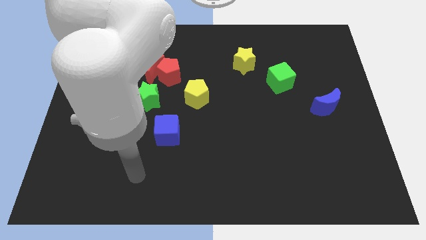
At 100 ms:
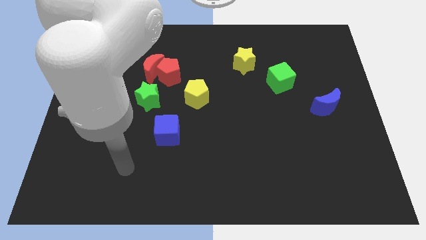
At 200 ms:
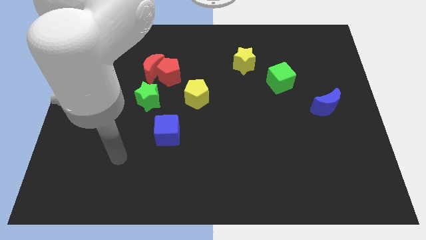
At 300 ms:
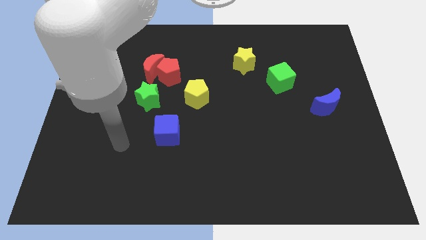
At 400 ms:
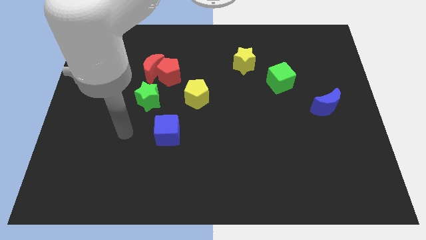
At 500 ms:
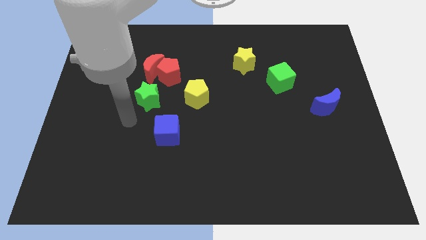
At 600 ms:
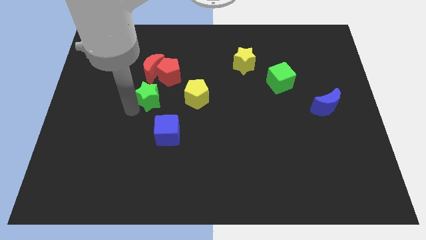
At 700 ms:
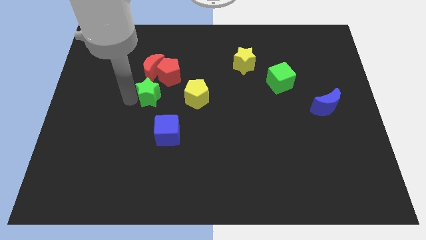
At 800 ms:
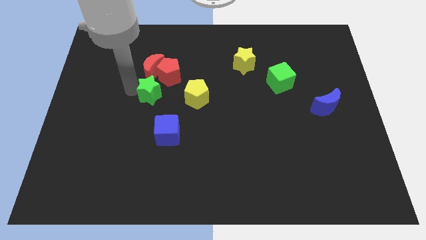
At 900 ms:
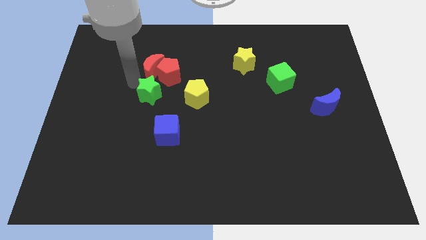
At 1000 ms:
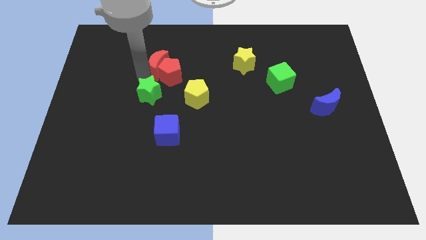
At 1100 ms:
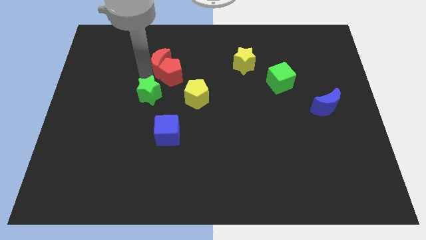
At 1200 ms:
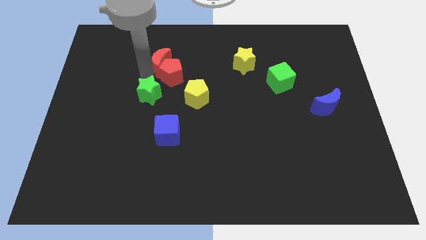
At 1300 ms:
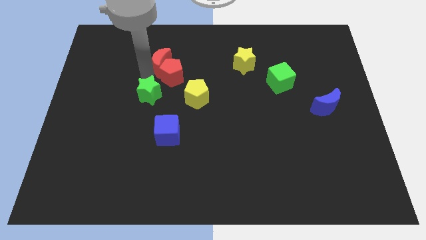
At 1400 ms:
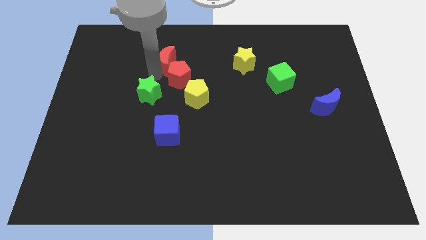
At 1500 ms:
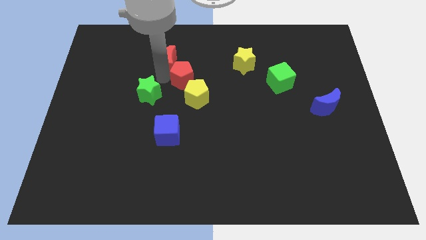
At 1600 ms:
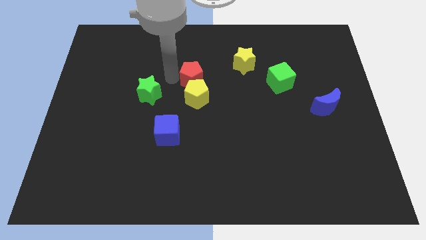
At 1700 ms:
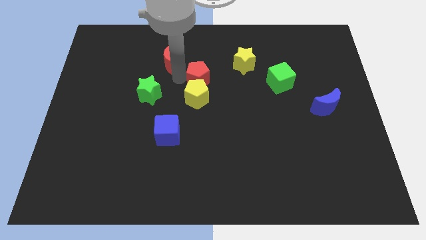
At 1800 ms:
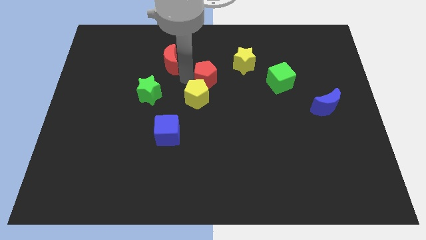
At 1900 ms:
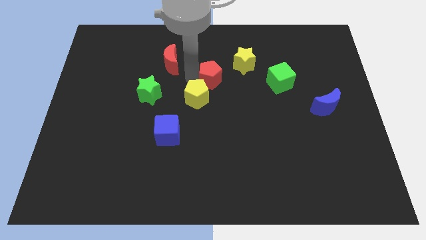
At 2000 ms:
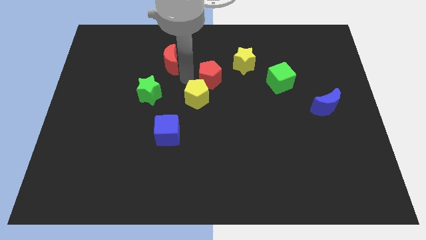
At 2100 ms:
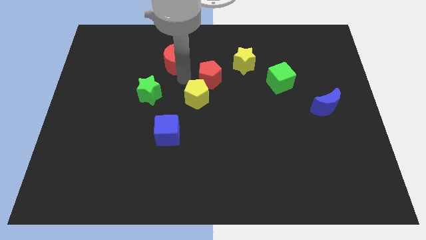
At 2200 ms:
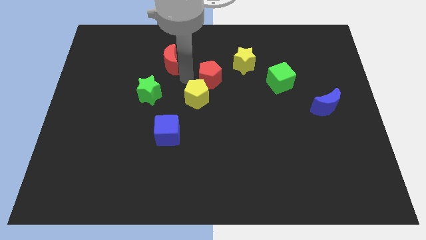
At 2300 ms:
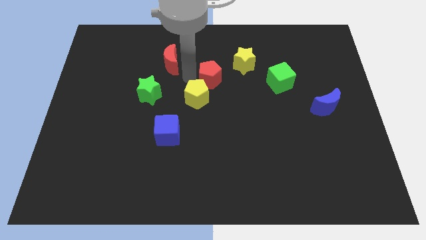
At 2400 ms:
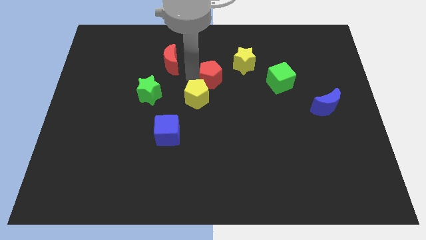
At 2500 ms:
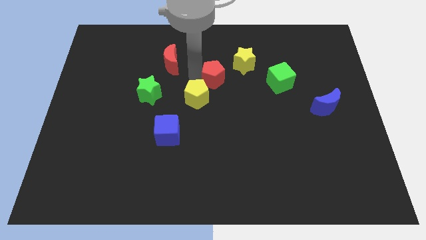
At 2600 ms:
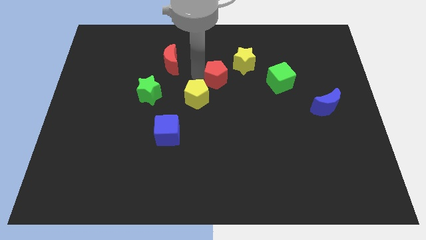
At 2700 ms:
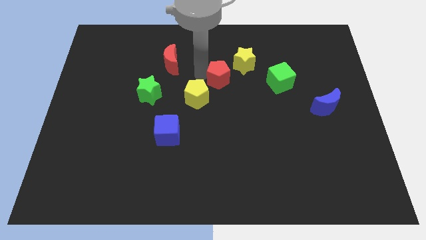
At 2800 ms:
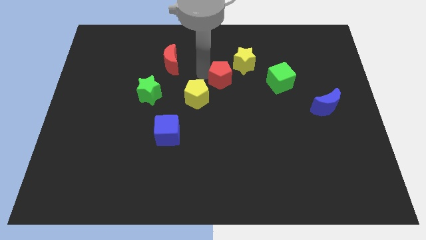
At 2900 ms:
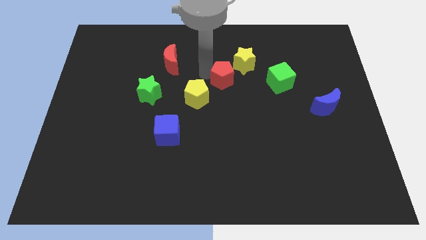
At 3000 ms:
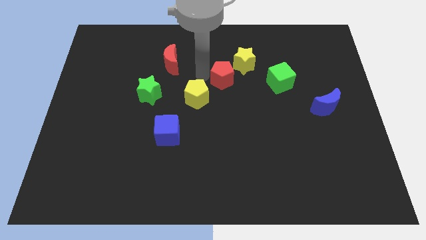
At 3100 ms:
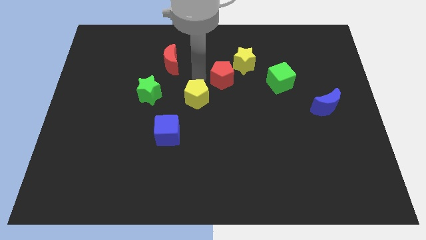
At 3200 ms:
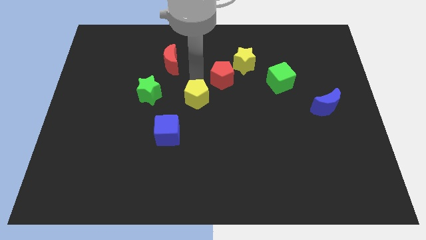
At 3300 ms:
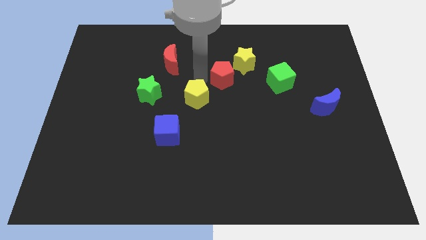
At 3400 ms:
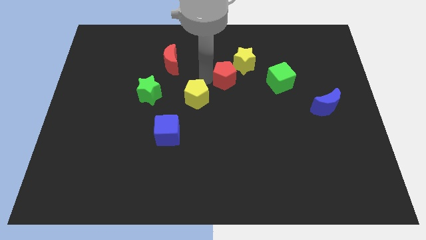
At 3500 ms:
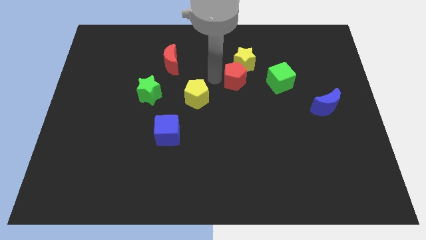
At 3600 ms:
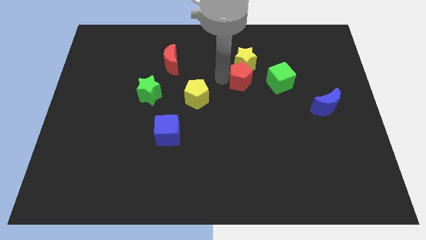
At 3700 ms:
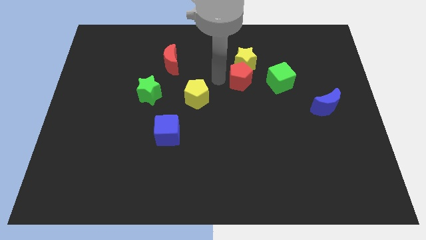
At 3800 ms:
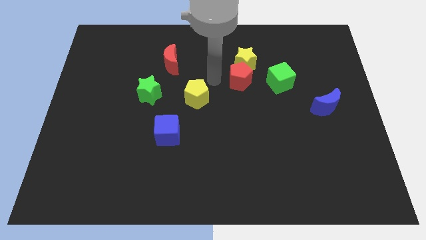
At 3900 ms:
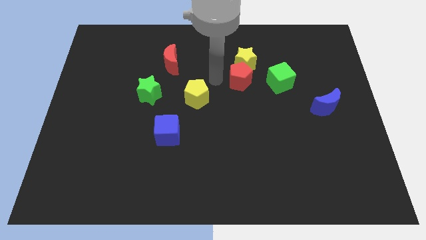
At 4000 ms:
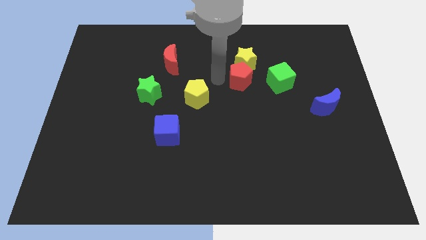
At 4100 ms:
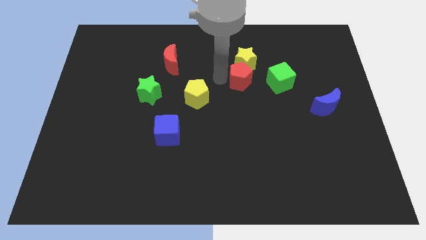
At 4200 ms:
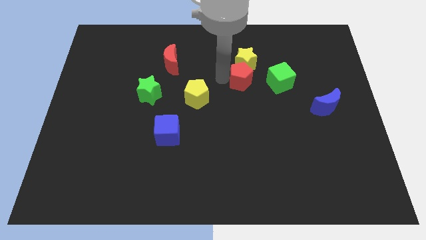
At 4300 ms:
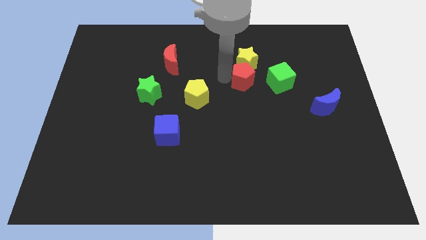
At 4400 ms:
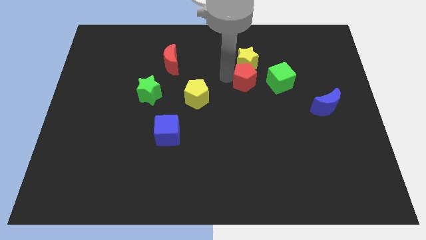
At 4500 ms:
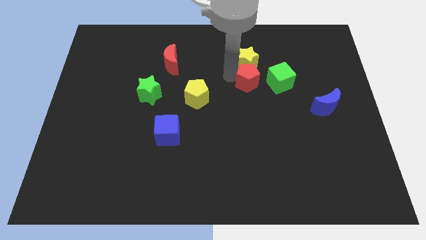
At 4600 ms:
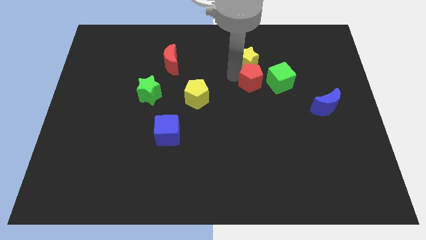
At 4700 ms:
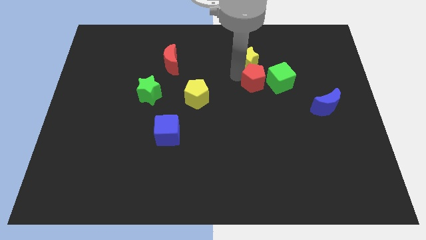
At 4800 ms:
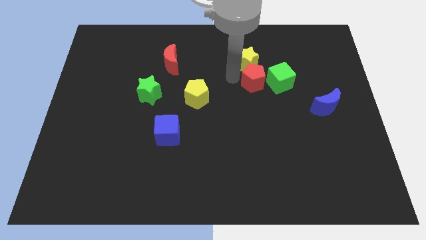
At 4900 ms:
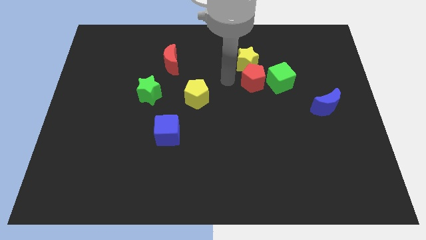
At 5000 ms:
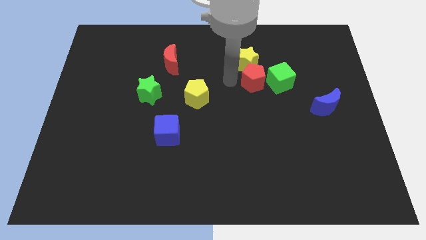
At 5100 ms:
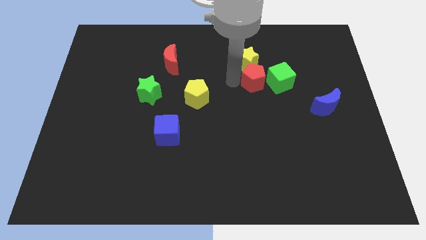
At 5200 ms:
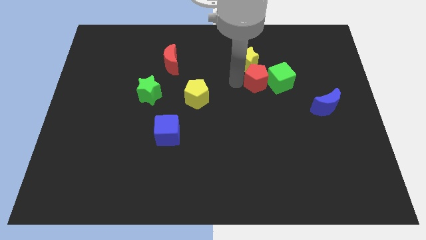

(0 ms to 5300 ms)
move the red pentagon towards the green cube

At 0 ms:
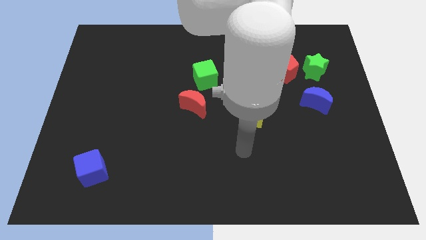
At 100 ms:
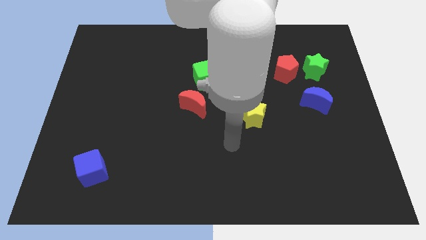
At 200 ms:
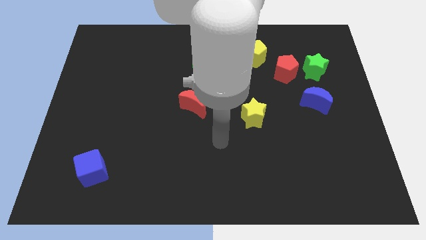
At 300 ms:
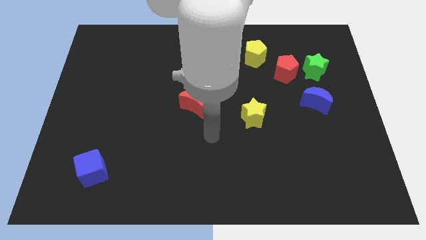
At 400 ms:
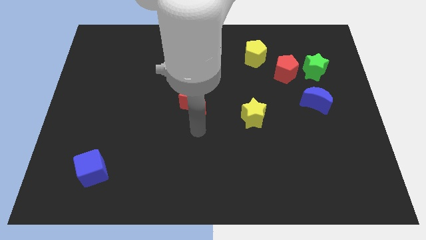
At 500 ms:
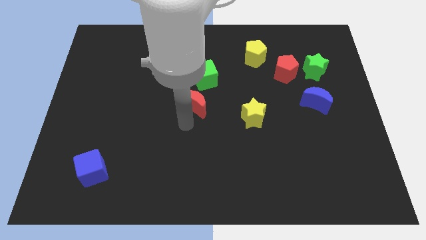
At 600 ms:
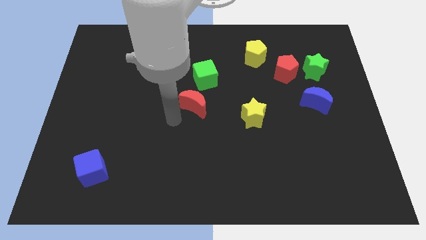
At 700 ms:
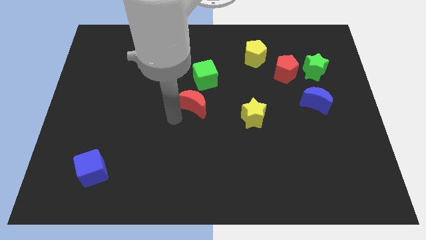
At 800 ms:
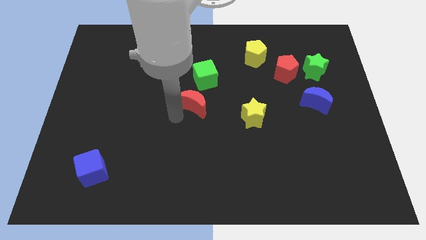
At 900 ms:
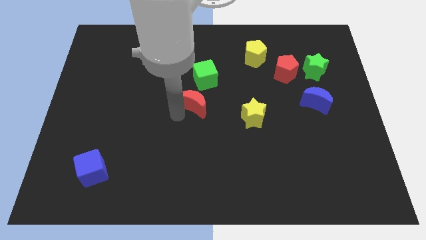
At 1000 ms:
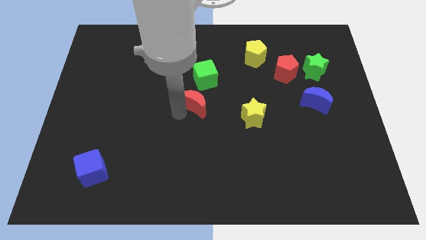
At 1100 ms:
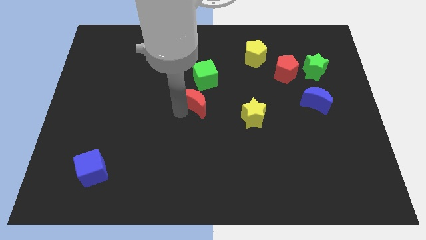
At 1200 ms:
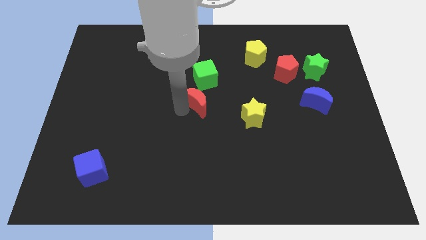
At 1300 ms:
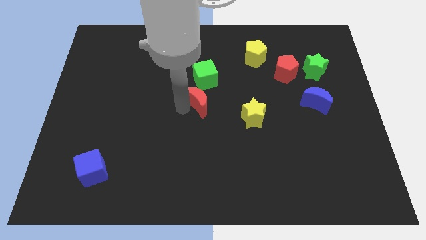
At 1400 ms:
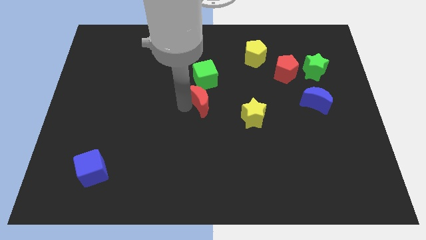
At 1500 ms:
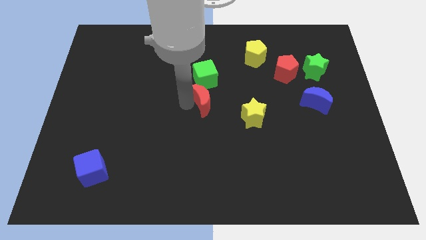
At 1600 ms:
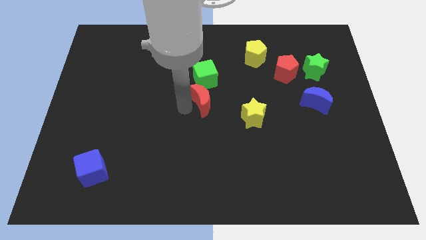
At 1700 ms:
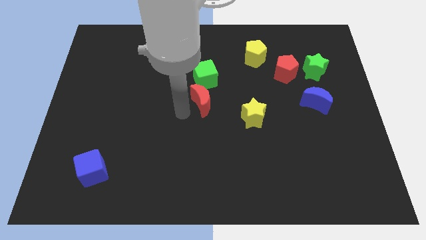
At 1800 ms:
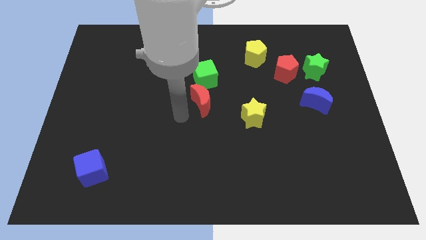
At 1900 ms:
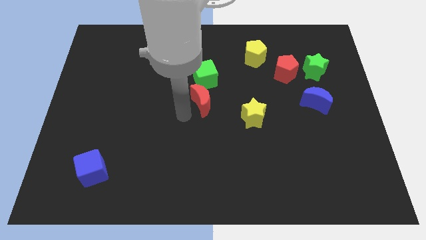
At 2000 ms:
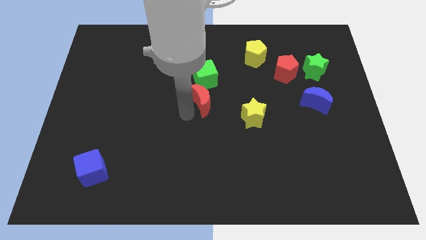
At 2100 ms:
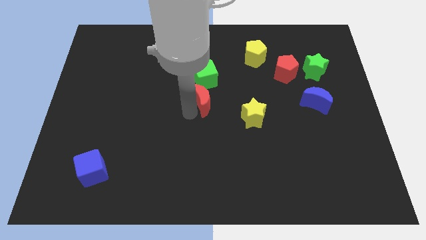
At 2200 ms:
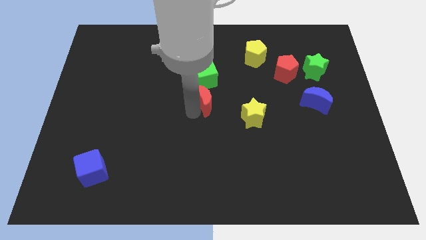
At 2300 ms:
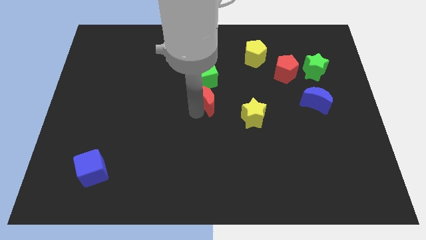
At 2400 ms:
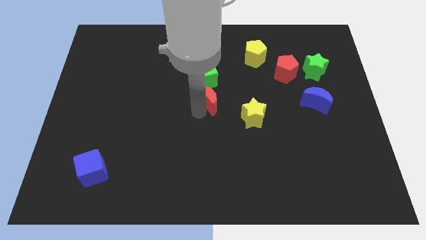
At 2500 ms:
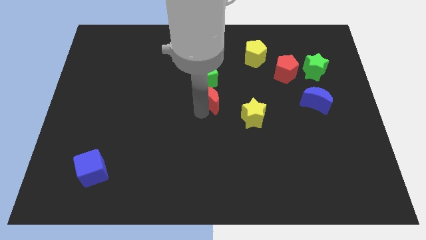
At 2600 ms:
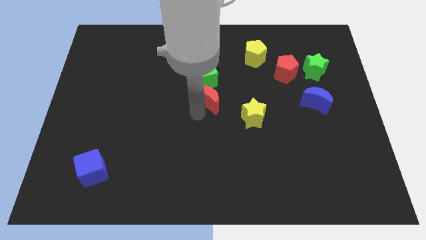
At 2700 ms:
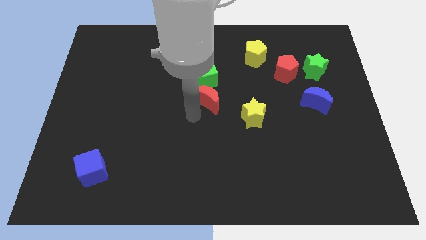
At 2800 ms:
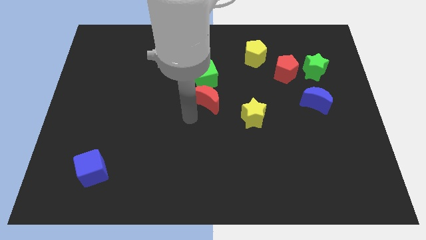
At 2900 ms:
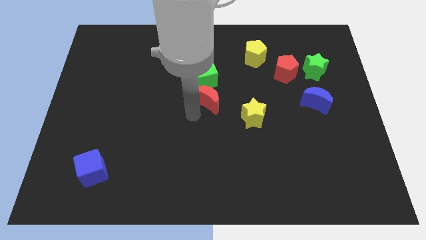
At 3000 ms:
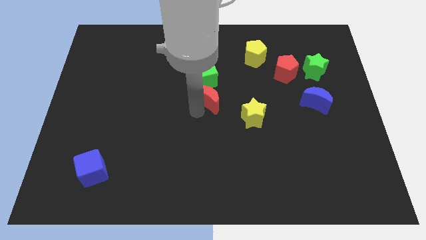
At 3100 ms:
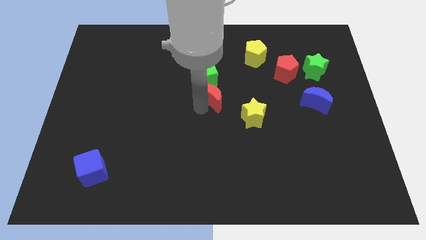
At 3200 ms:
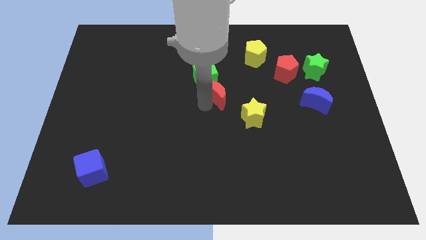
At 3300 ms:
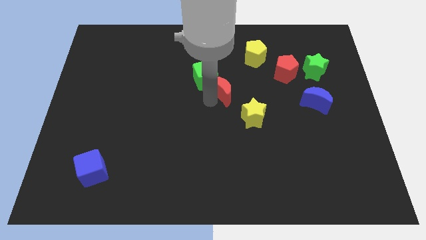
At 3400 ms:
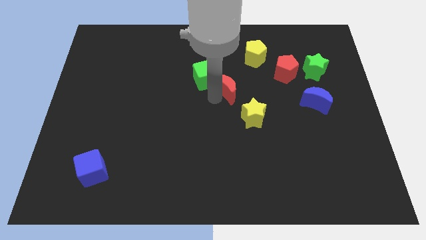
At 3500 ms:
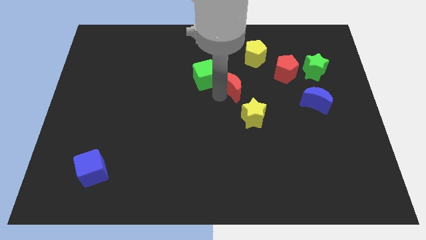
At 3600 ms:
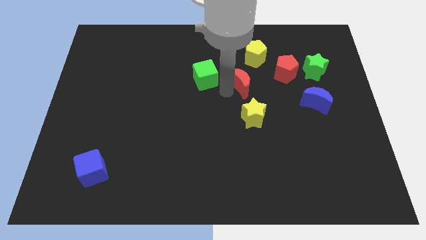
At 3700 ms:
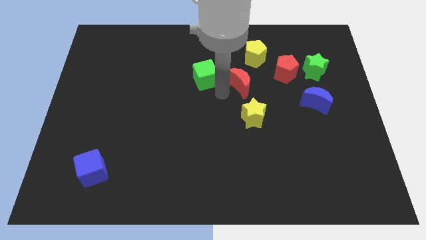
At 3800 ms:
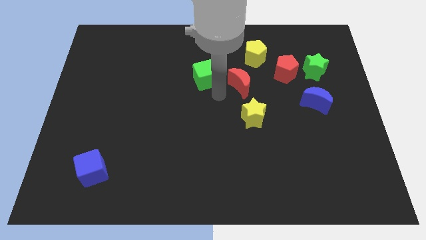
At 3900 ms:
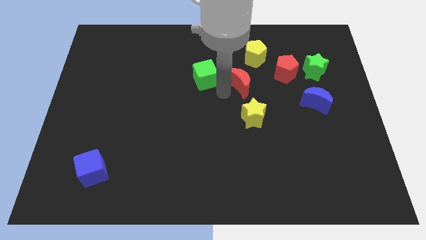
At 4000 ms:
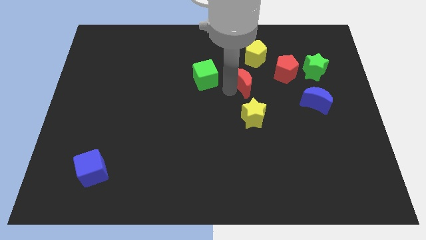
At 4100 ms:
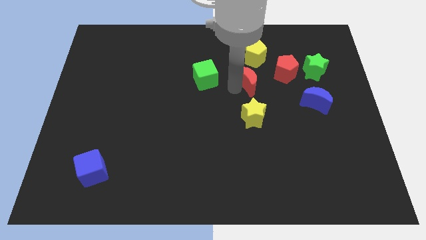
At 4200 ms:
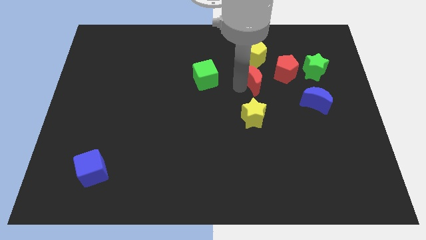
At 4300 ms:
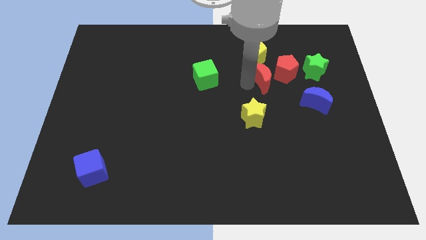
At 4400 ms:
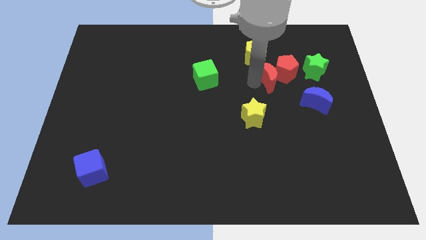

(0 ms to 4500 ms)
put the red moon next to the red pentagon
